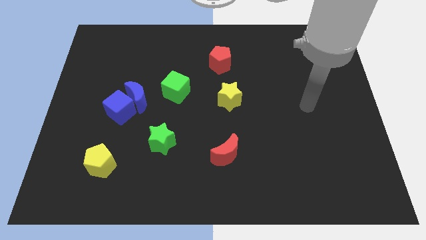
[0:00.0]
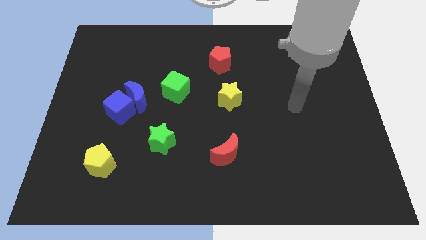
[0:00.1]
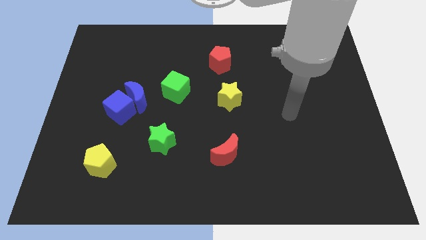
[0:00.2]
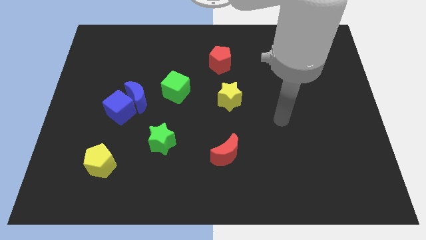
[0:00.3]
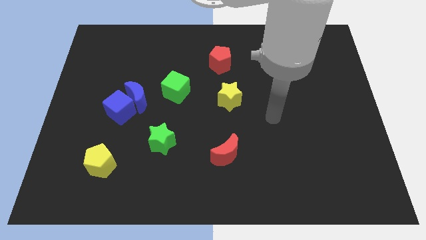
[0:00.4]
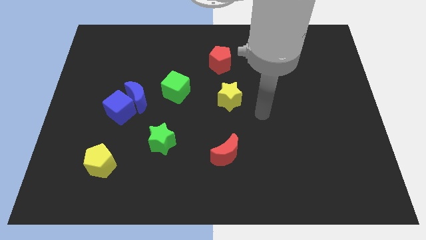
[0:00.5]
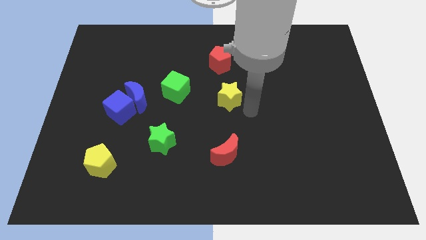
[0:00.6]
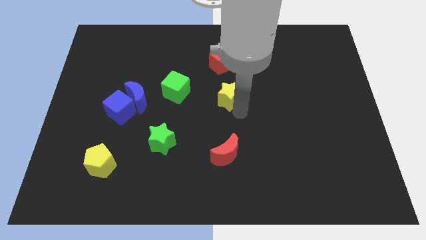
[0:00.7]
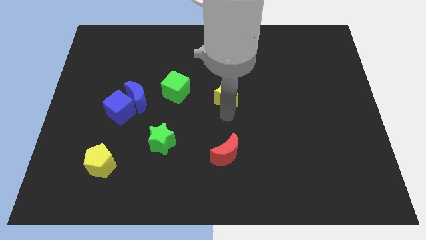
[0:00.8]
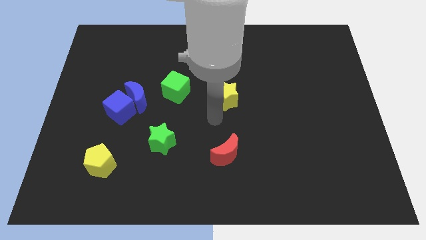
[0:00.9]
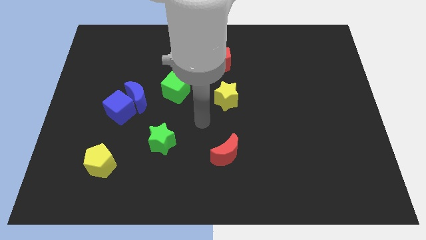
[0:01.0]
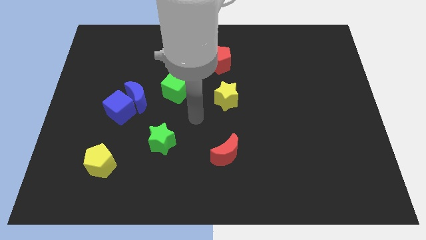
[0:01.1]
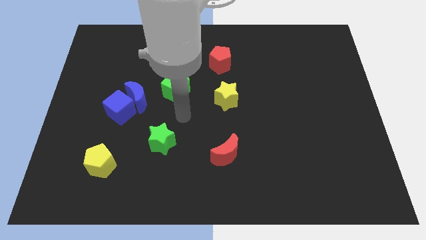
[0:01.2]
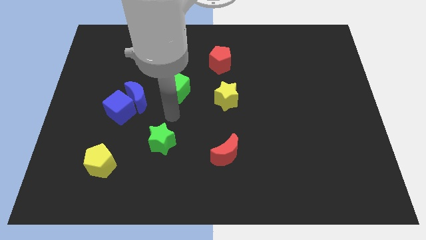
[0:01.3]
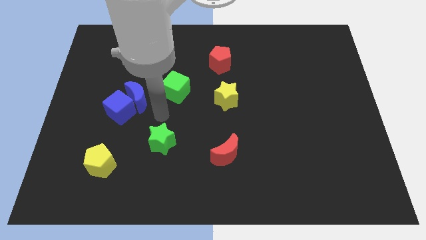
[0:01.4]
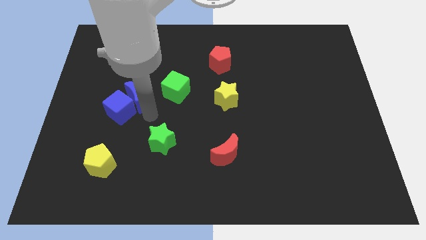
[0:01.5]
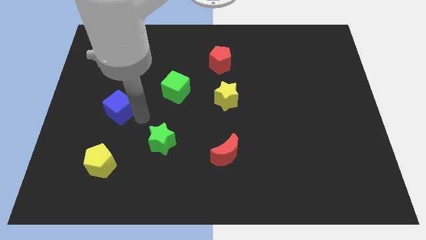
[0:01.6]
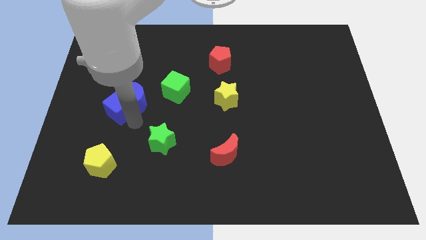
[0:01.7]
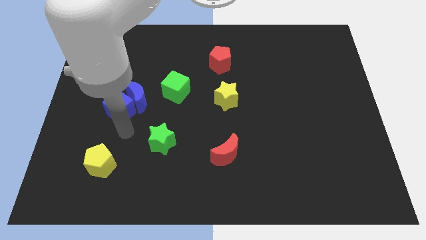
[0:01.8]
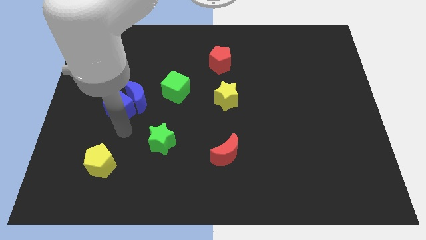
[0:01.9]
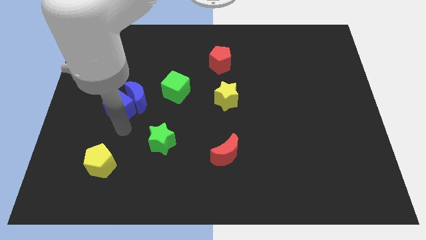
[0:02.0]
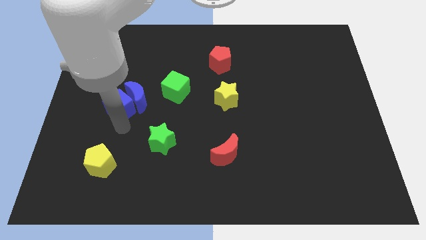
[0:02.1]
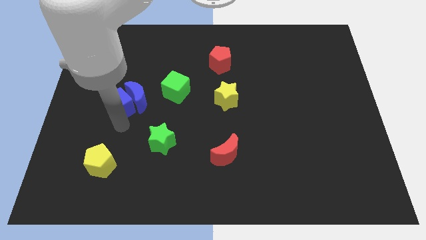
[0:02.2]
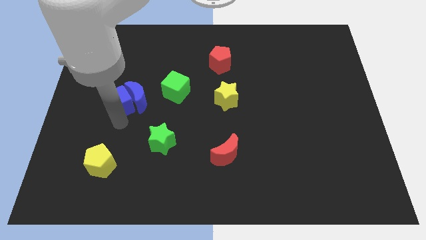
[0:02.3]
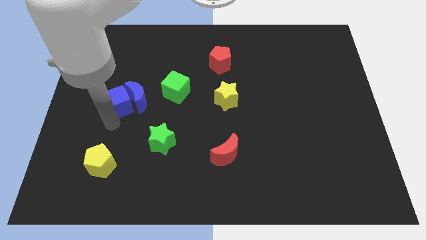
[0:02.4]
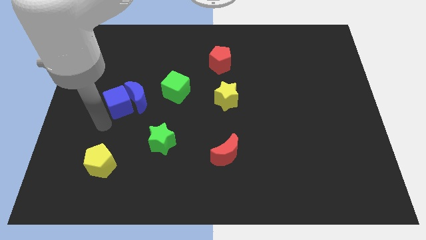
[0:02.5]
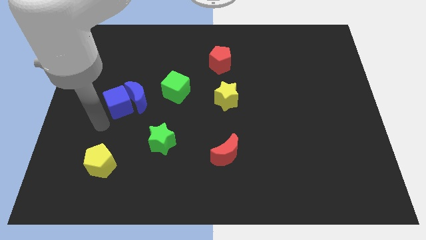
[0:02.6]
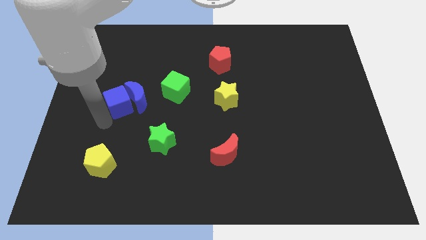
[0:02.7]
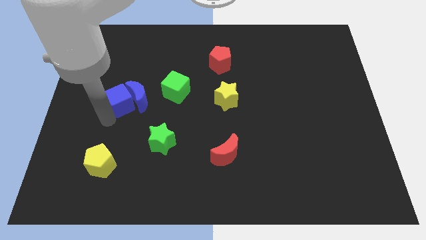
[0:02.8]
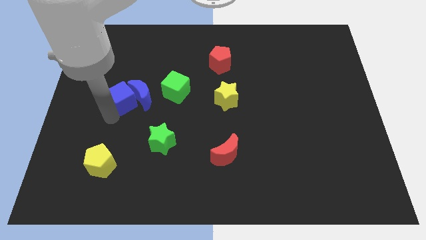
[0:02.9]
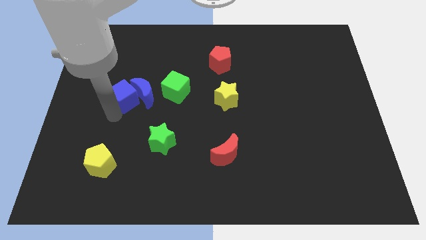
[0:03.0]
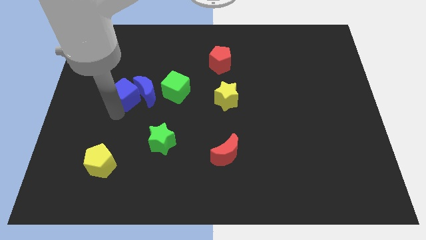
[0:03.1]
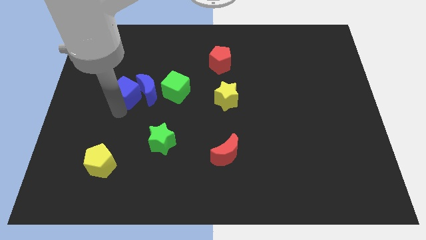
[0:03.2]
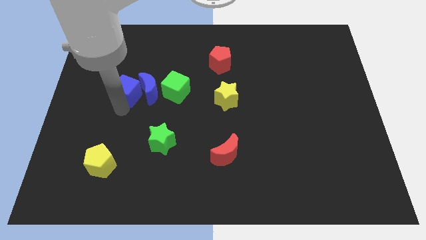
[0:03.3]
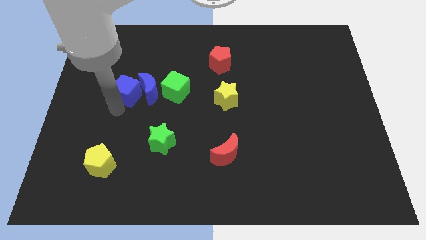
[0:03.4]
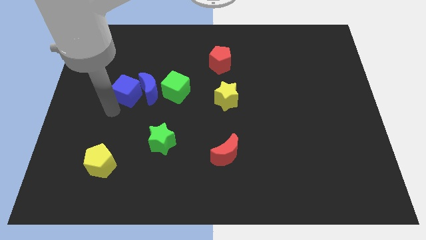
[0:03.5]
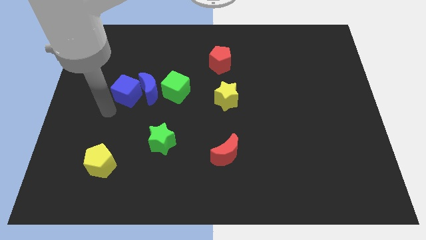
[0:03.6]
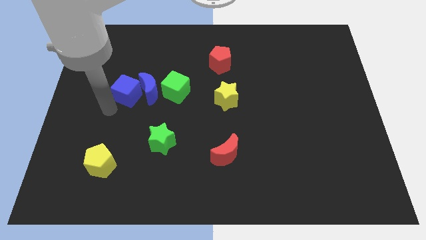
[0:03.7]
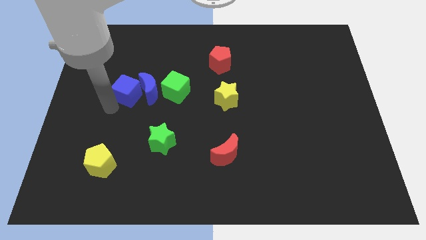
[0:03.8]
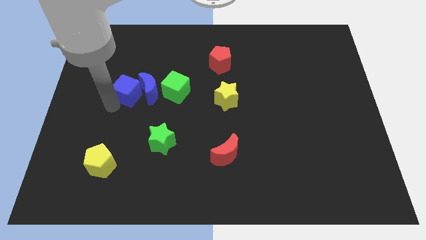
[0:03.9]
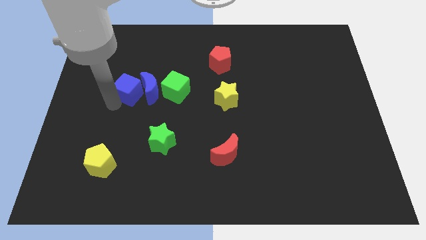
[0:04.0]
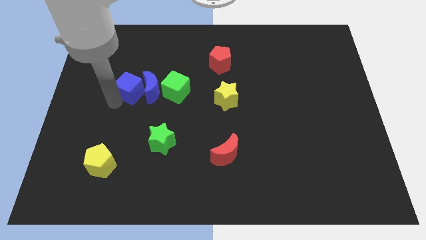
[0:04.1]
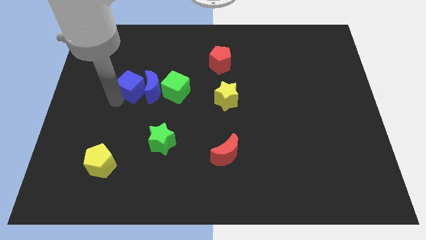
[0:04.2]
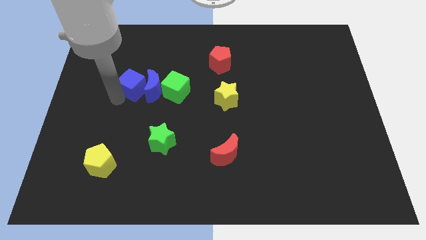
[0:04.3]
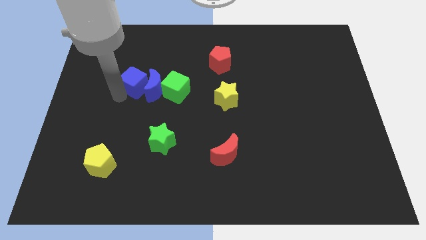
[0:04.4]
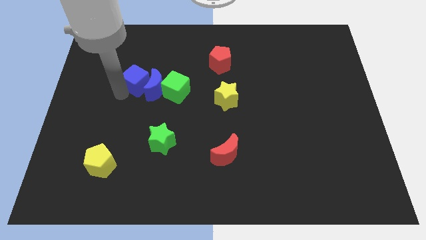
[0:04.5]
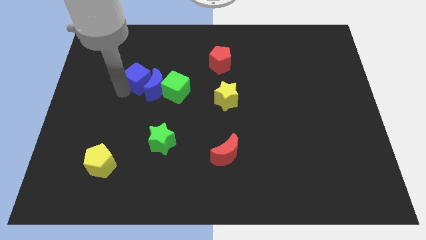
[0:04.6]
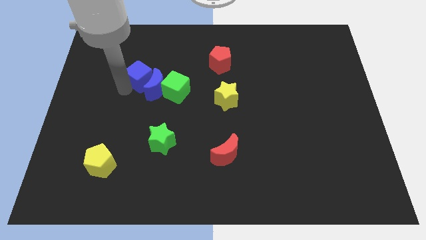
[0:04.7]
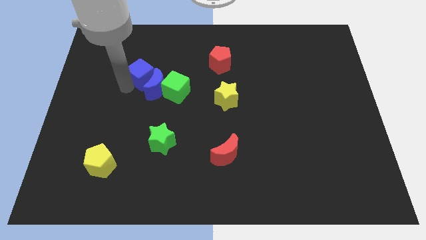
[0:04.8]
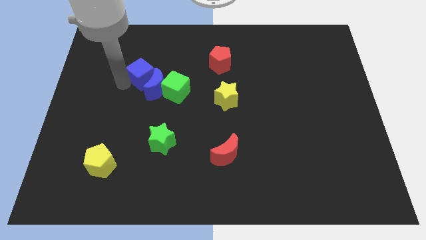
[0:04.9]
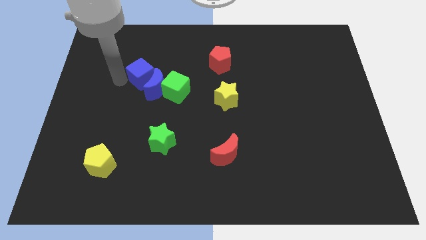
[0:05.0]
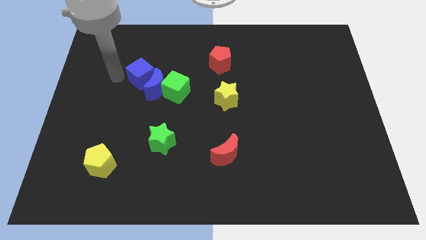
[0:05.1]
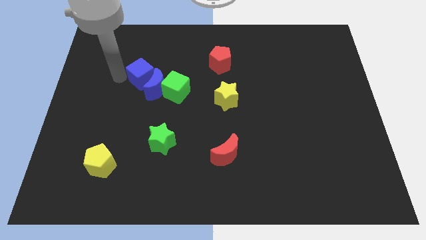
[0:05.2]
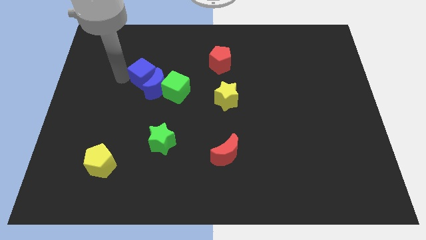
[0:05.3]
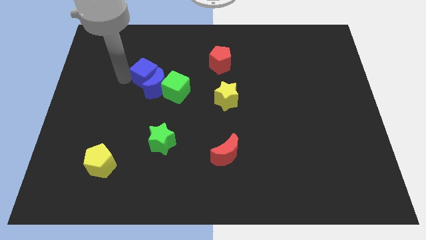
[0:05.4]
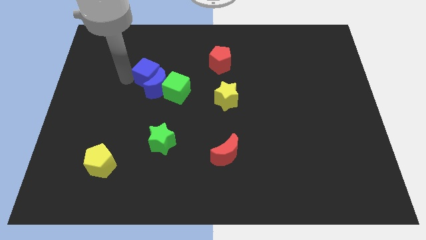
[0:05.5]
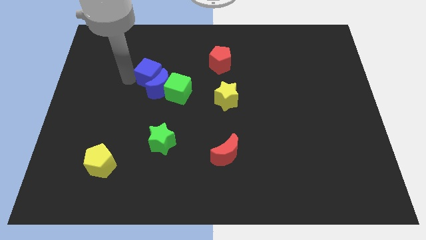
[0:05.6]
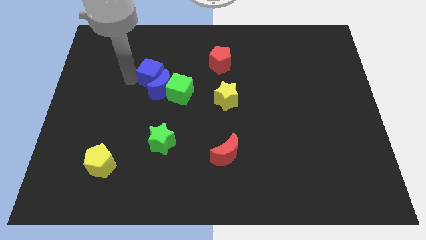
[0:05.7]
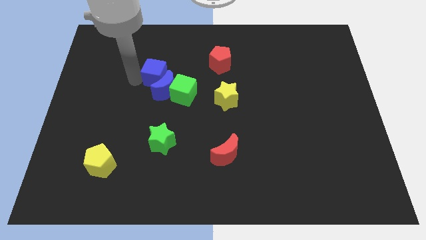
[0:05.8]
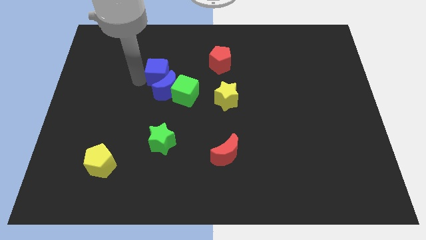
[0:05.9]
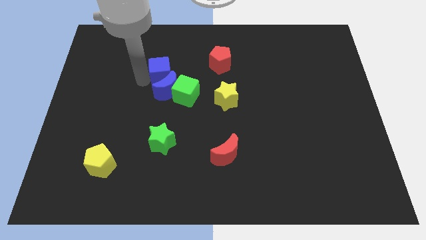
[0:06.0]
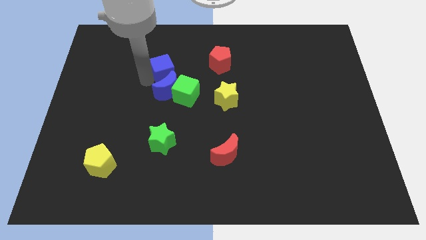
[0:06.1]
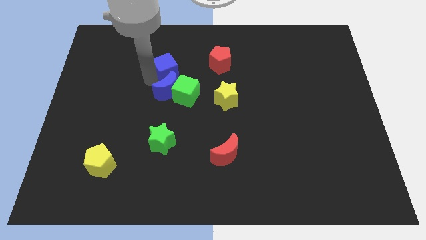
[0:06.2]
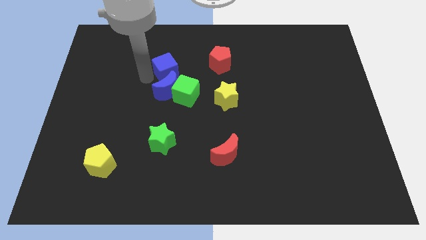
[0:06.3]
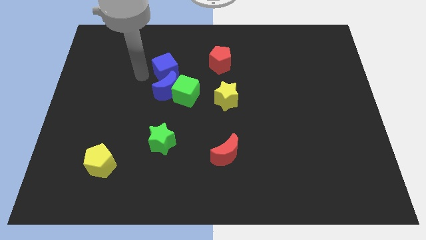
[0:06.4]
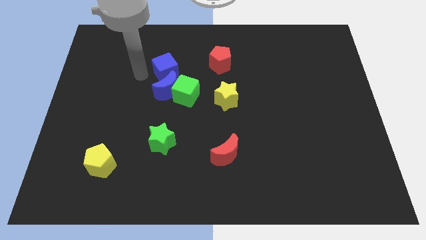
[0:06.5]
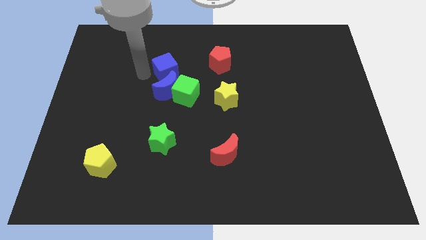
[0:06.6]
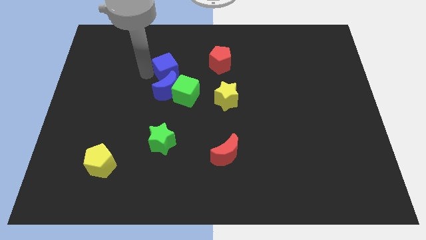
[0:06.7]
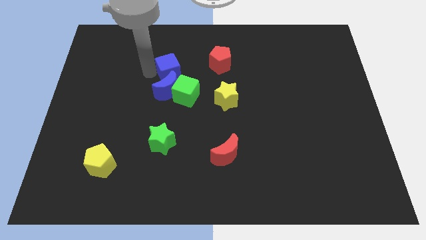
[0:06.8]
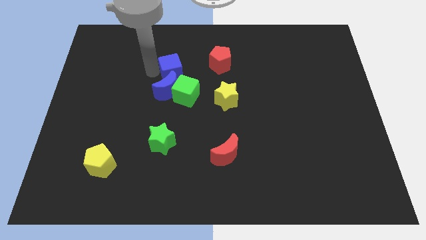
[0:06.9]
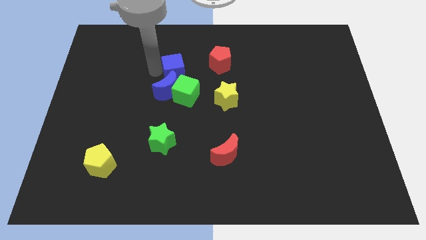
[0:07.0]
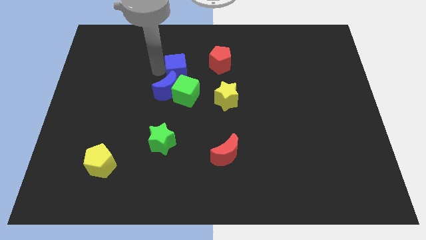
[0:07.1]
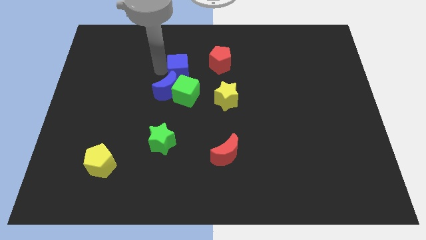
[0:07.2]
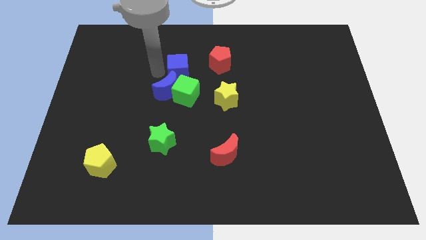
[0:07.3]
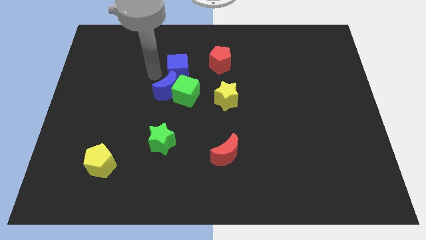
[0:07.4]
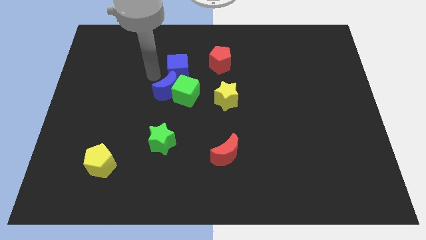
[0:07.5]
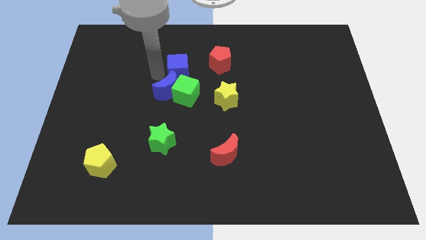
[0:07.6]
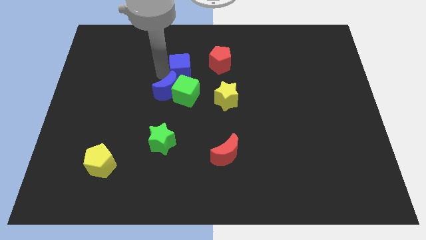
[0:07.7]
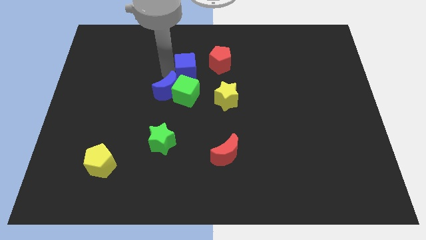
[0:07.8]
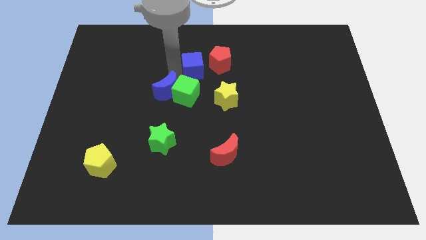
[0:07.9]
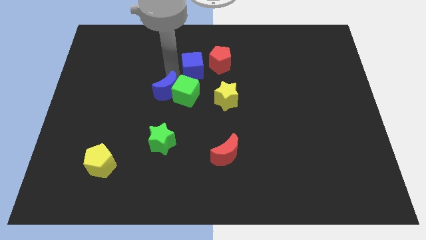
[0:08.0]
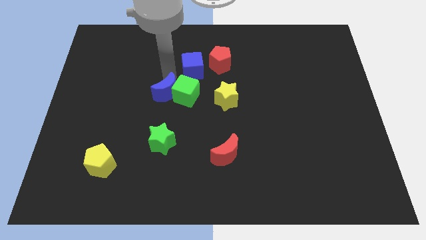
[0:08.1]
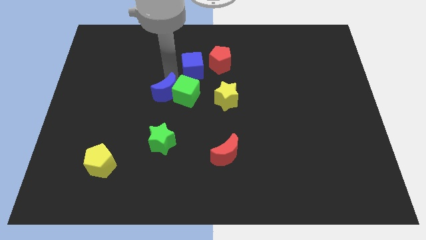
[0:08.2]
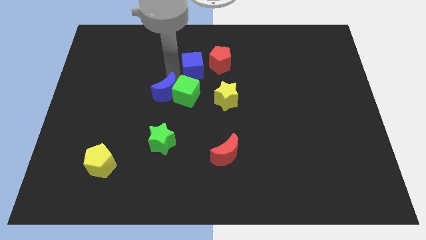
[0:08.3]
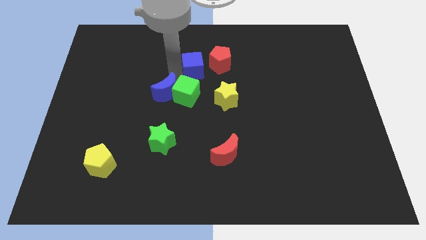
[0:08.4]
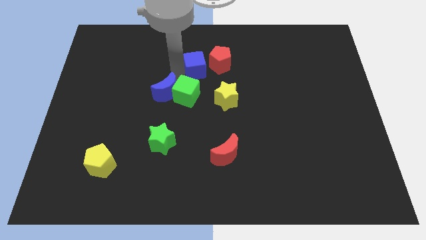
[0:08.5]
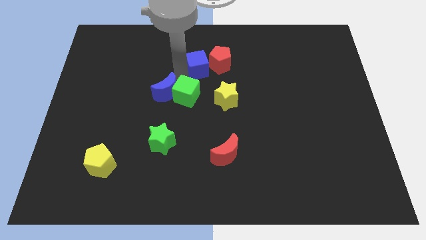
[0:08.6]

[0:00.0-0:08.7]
slide the blue cube next to the red pentagon
